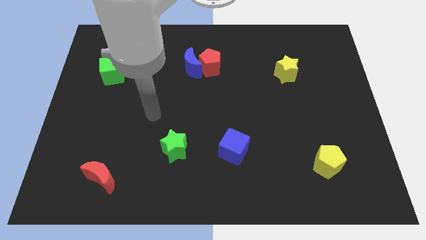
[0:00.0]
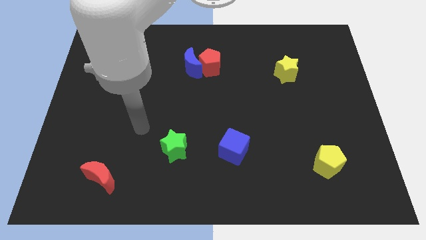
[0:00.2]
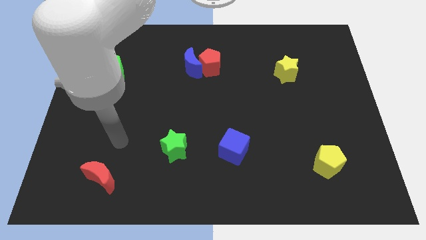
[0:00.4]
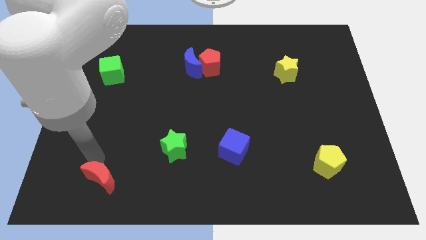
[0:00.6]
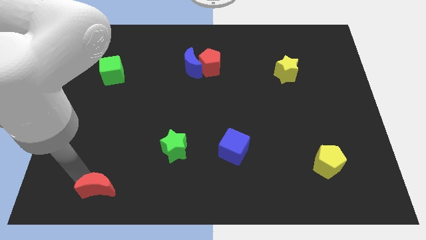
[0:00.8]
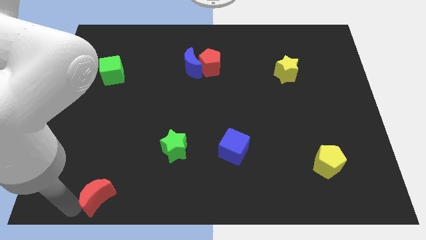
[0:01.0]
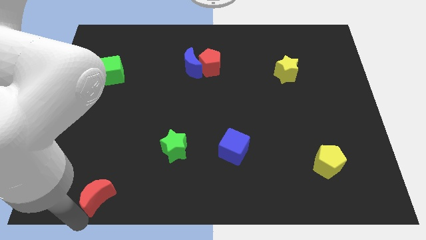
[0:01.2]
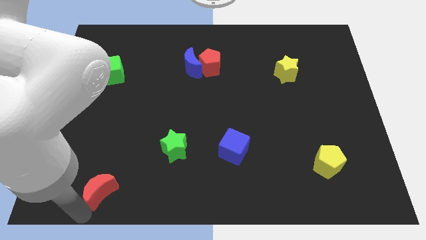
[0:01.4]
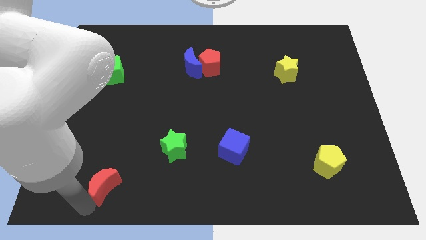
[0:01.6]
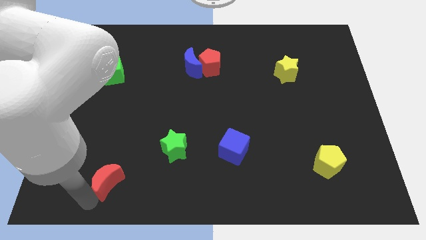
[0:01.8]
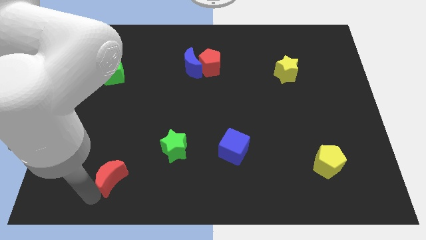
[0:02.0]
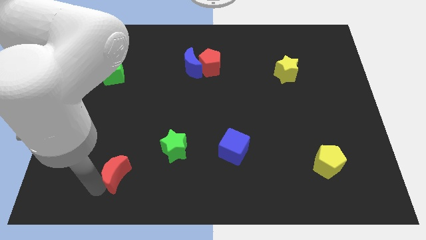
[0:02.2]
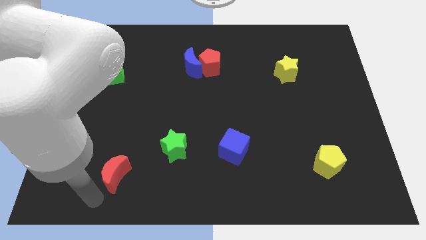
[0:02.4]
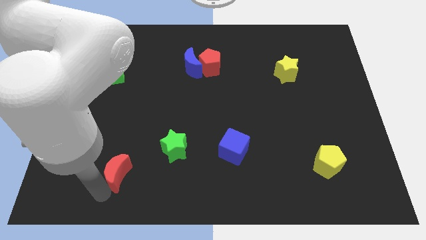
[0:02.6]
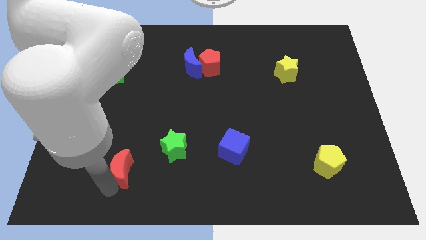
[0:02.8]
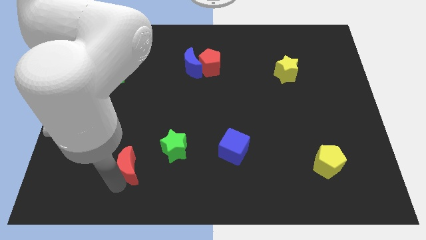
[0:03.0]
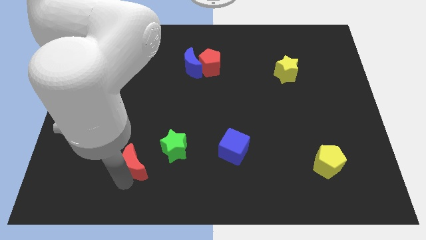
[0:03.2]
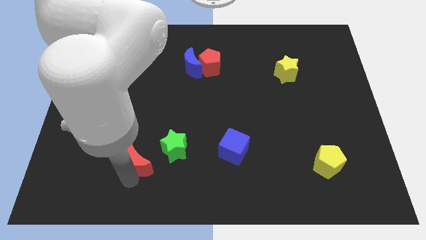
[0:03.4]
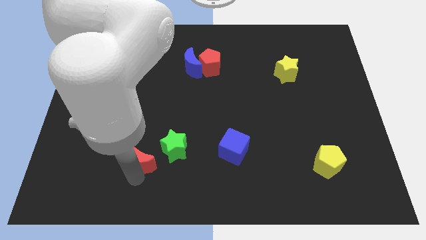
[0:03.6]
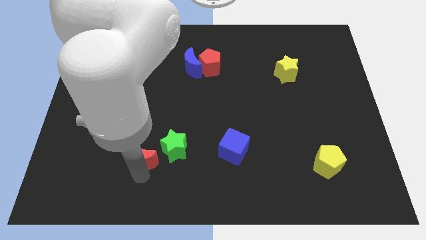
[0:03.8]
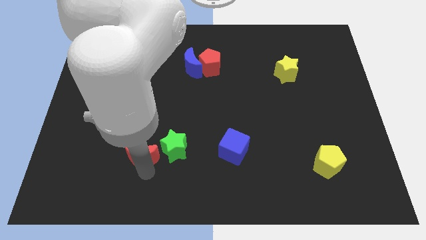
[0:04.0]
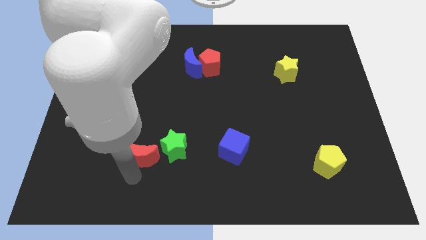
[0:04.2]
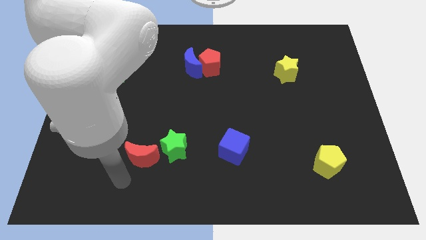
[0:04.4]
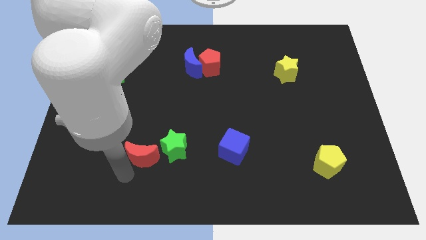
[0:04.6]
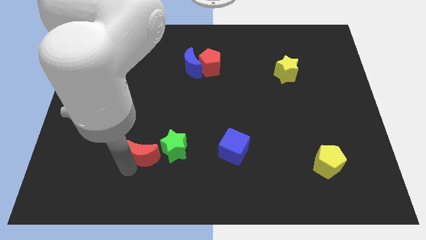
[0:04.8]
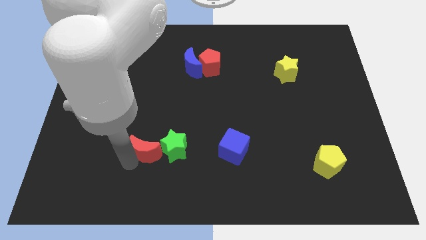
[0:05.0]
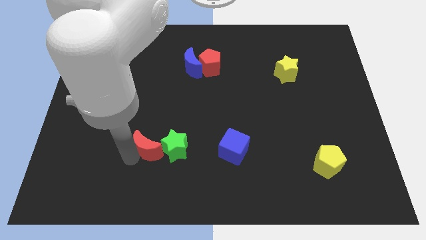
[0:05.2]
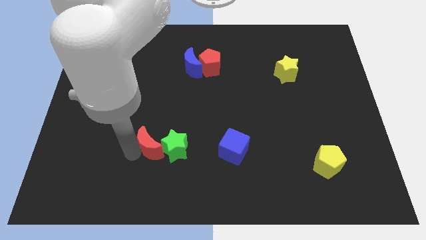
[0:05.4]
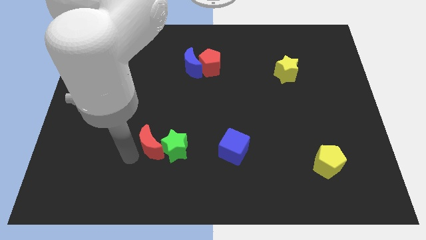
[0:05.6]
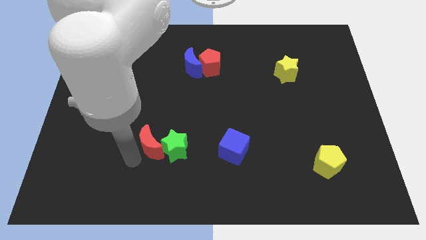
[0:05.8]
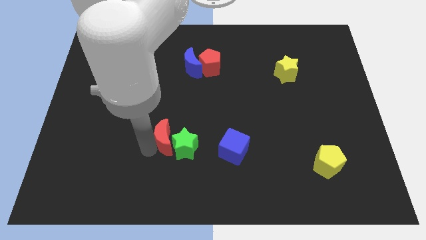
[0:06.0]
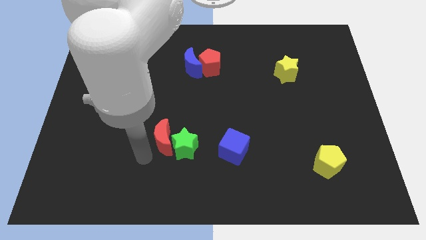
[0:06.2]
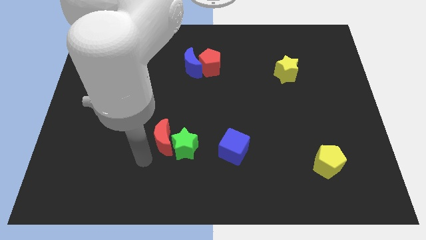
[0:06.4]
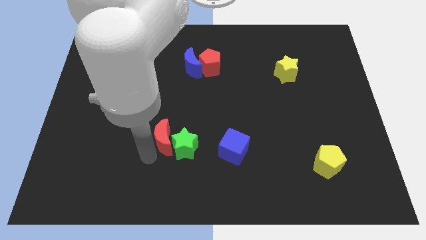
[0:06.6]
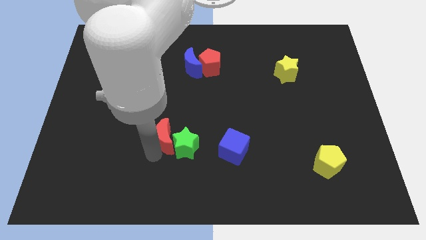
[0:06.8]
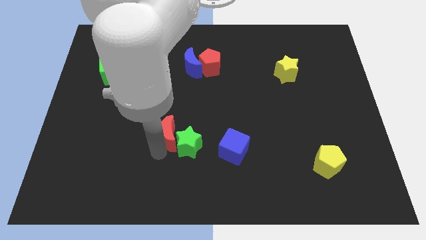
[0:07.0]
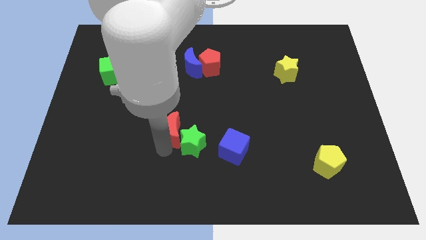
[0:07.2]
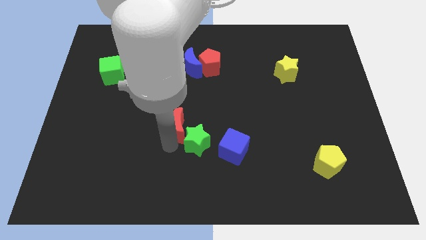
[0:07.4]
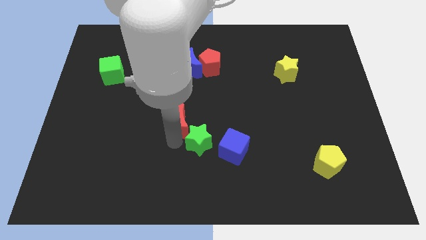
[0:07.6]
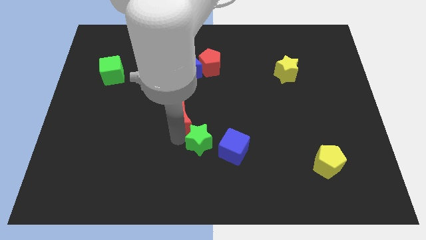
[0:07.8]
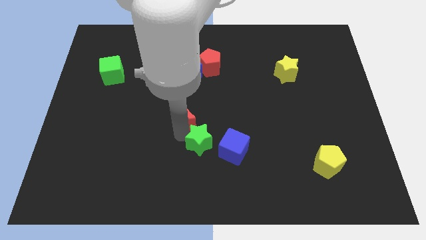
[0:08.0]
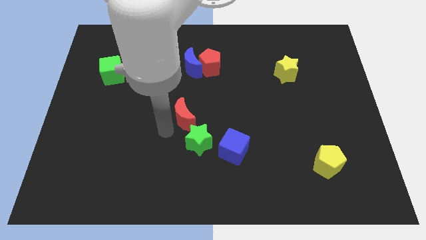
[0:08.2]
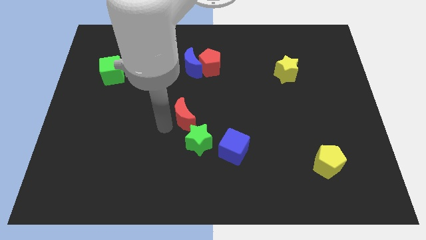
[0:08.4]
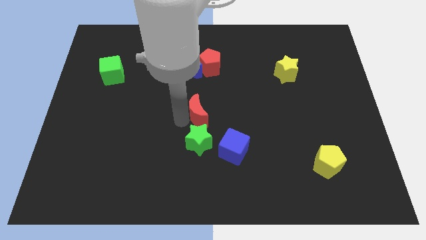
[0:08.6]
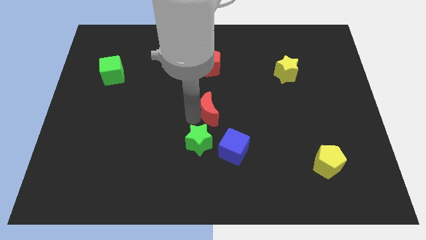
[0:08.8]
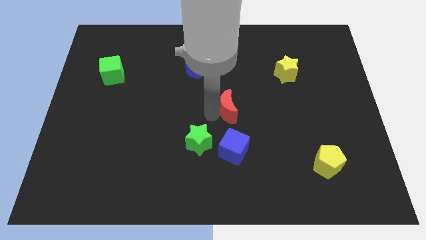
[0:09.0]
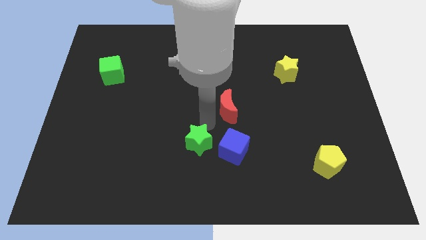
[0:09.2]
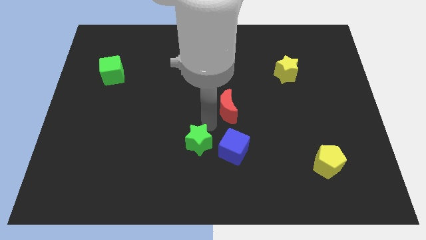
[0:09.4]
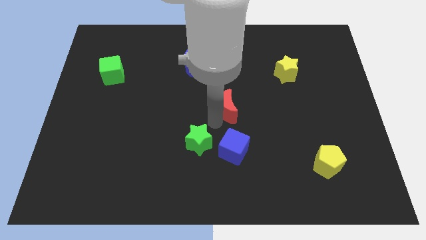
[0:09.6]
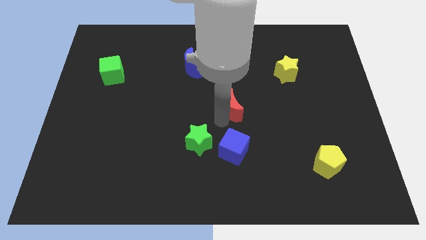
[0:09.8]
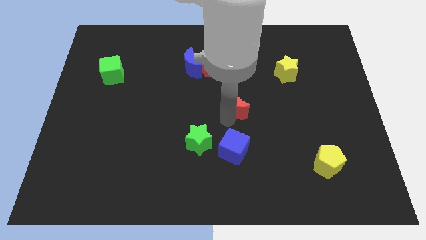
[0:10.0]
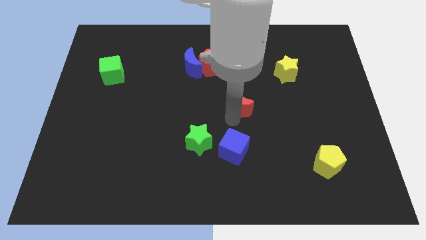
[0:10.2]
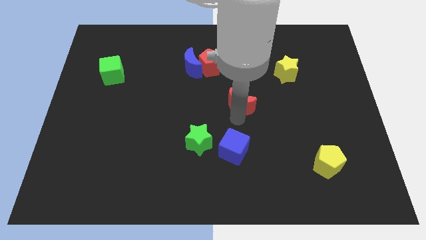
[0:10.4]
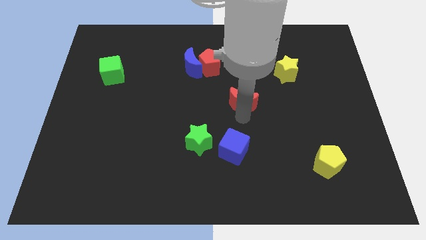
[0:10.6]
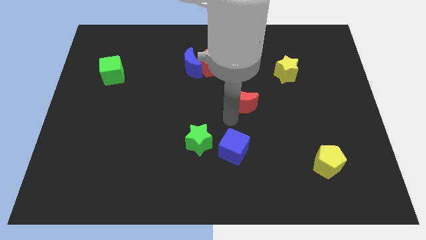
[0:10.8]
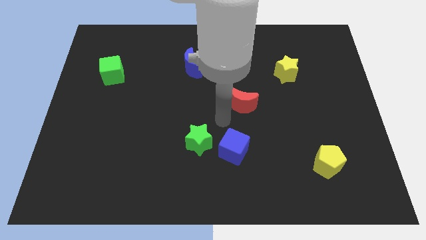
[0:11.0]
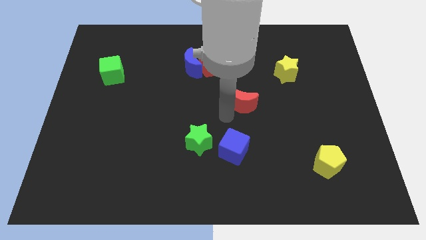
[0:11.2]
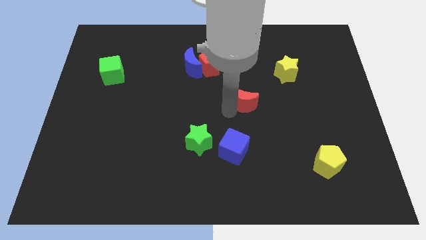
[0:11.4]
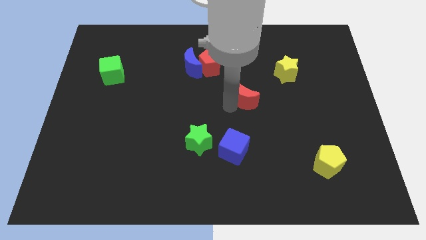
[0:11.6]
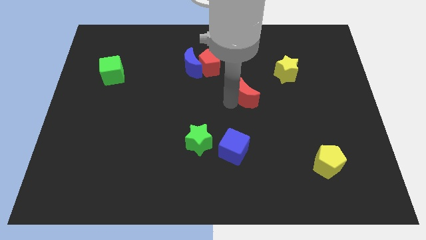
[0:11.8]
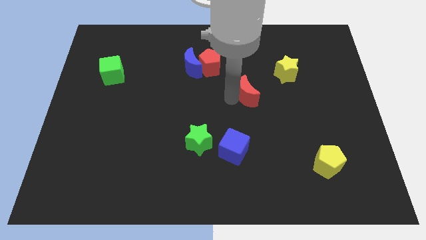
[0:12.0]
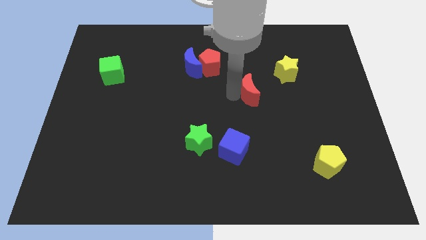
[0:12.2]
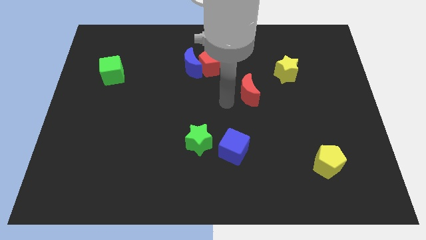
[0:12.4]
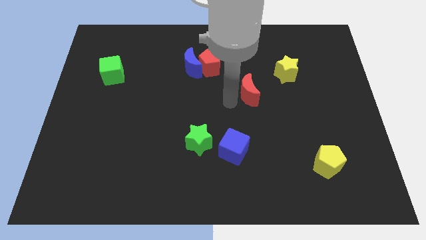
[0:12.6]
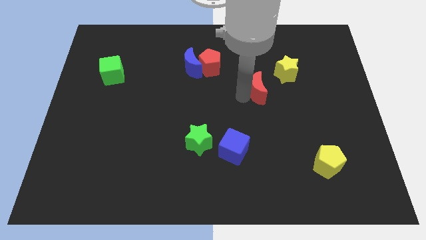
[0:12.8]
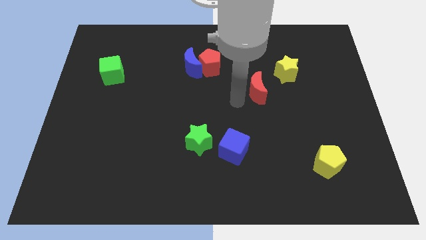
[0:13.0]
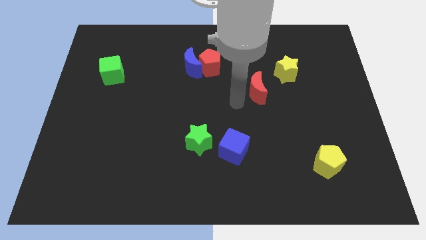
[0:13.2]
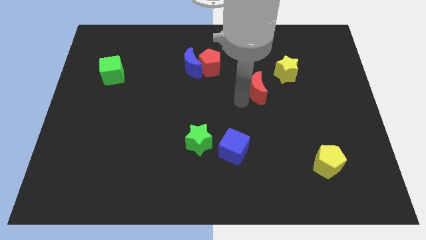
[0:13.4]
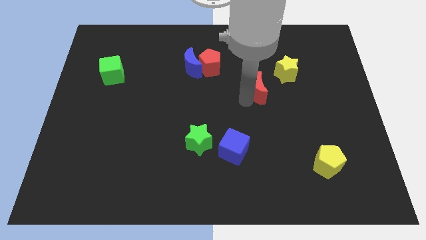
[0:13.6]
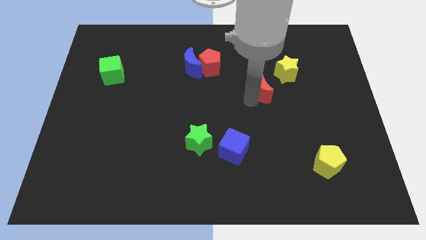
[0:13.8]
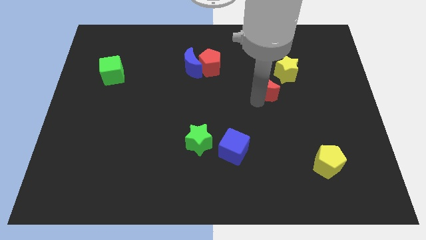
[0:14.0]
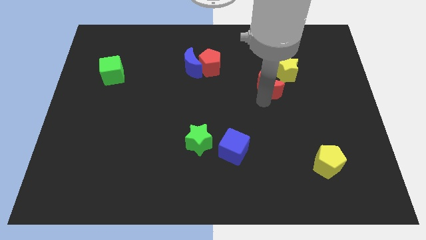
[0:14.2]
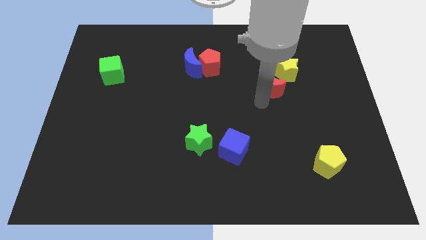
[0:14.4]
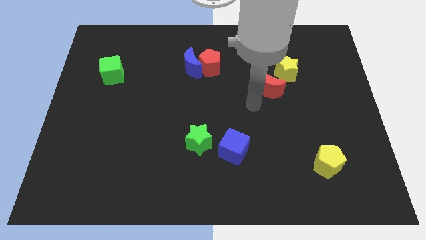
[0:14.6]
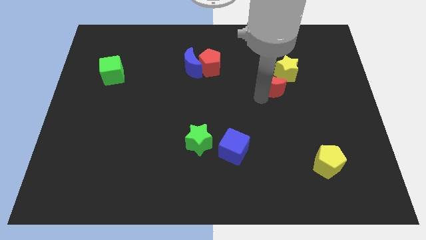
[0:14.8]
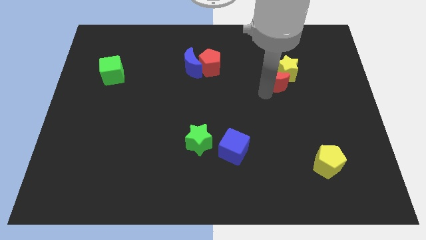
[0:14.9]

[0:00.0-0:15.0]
push the red moon close to the yellow star

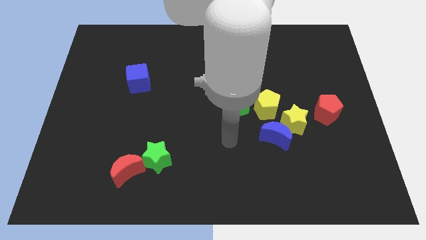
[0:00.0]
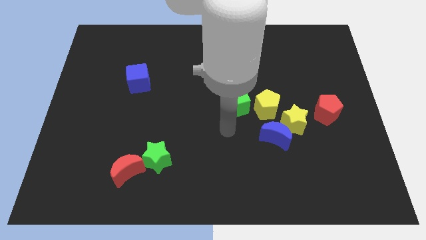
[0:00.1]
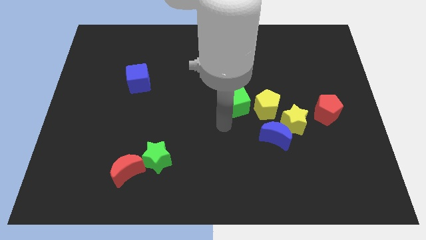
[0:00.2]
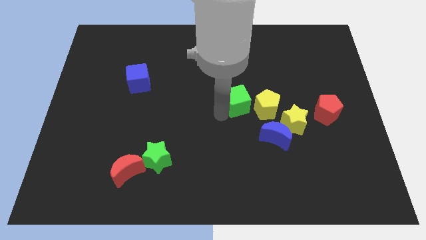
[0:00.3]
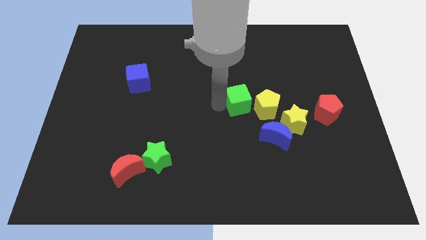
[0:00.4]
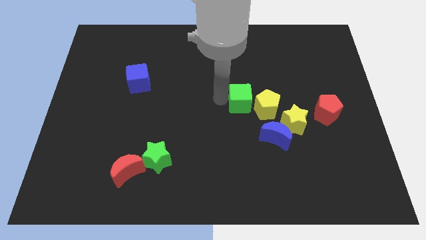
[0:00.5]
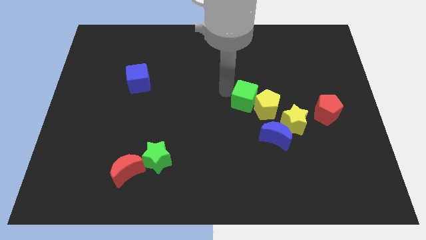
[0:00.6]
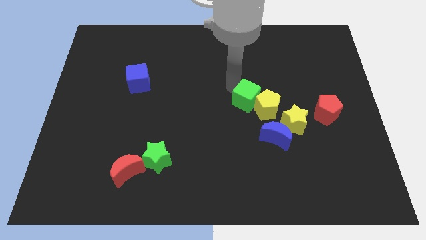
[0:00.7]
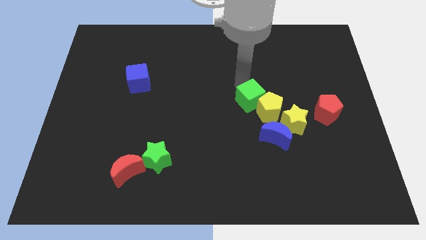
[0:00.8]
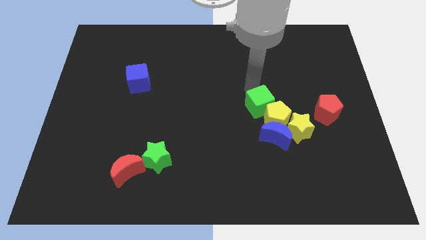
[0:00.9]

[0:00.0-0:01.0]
slide the yellow pentagon close to the blue moon
